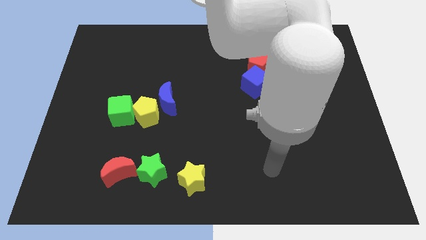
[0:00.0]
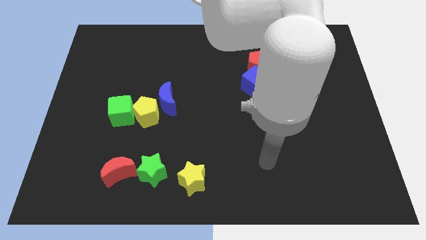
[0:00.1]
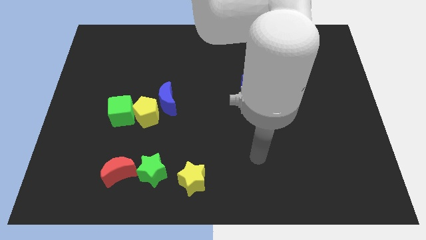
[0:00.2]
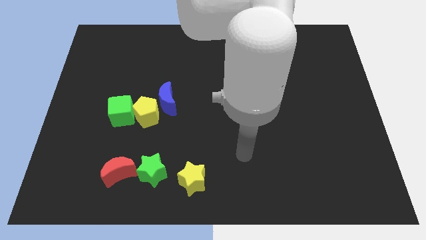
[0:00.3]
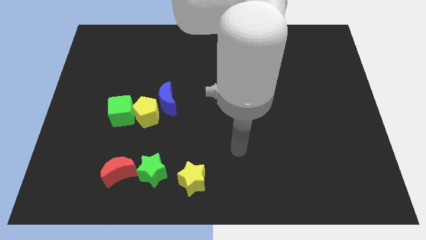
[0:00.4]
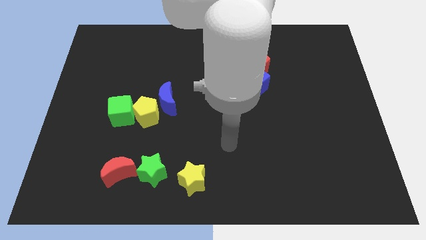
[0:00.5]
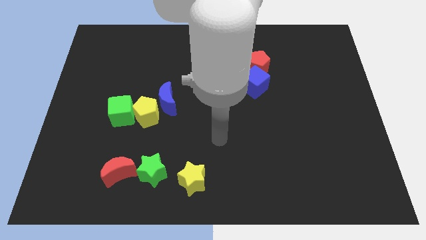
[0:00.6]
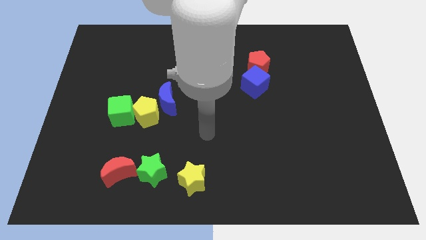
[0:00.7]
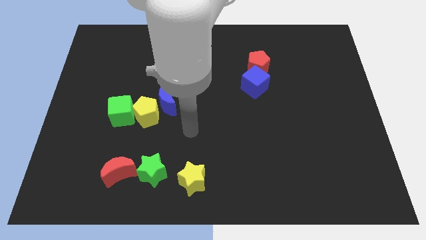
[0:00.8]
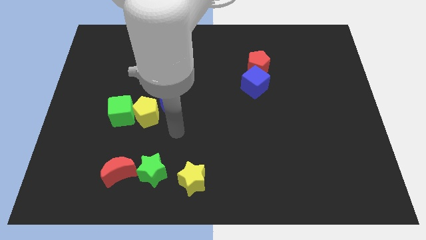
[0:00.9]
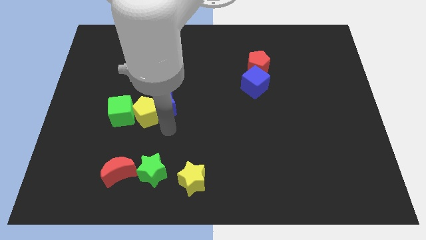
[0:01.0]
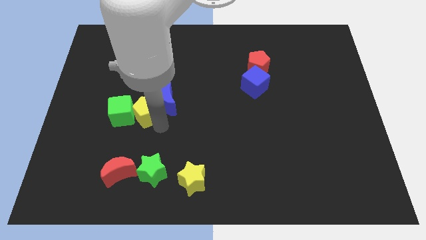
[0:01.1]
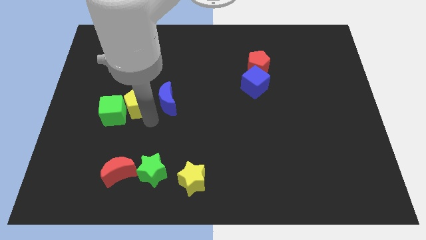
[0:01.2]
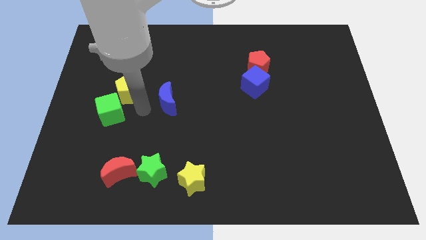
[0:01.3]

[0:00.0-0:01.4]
separate the blue moon from the yellow pentagon

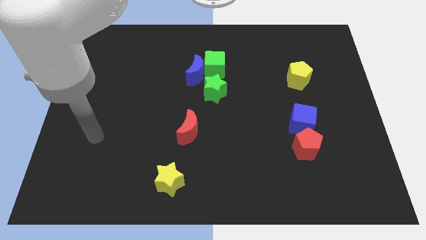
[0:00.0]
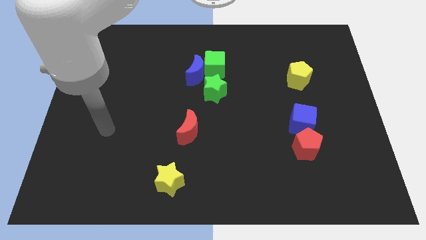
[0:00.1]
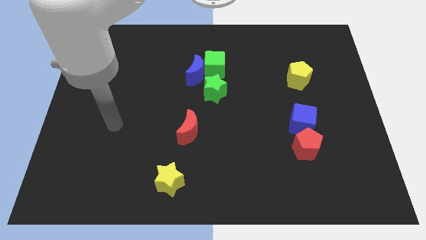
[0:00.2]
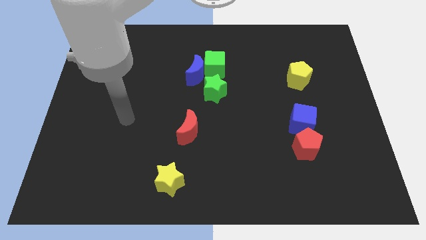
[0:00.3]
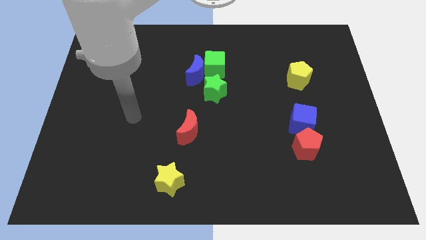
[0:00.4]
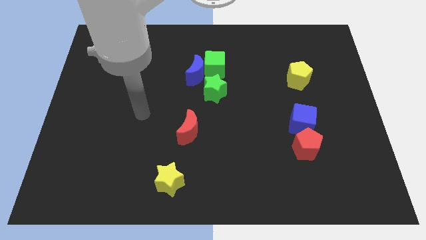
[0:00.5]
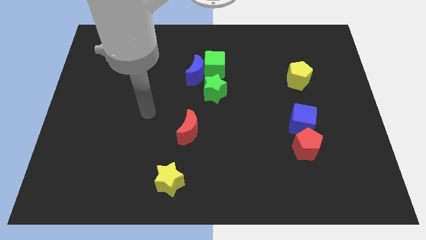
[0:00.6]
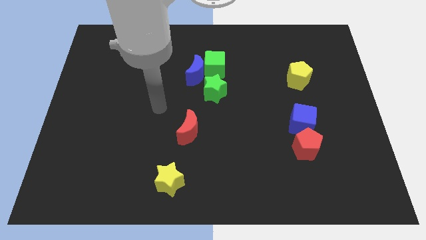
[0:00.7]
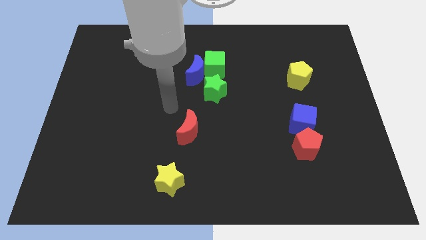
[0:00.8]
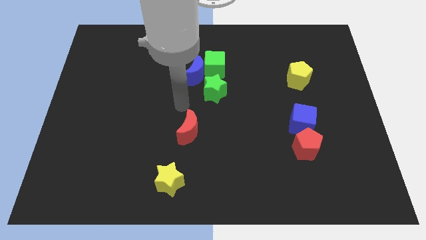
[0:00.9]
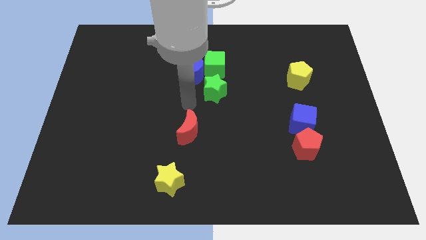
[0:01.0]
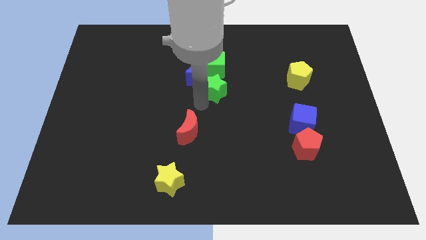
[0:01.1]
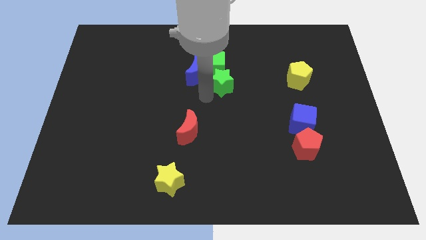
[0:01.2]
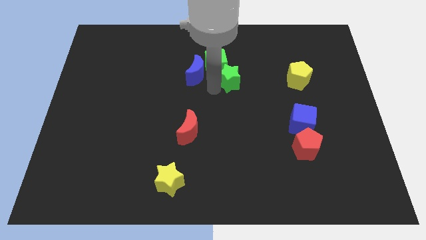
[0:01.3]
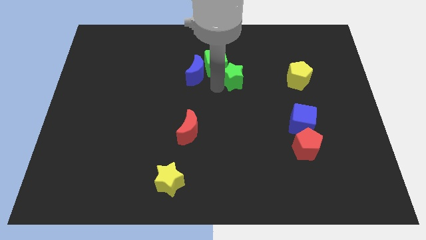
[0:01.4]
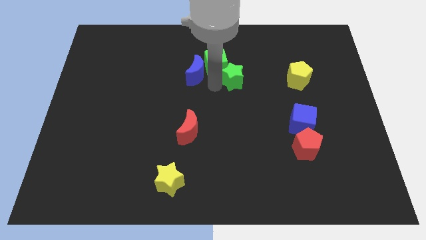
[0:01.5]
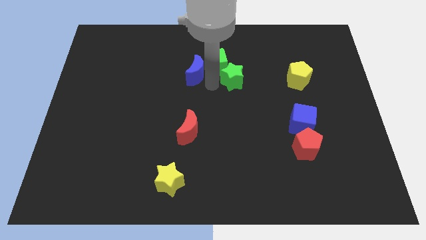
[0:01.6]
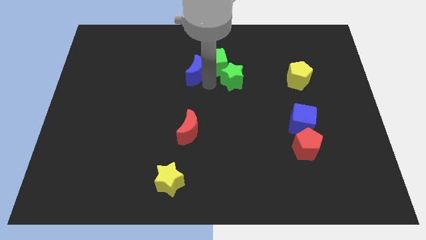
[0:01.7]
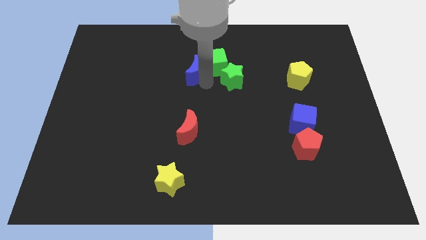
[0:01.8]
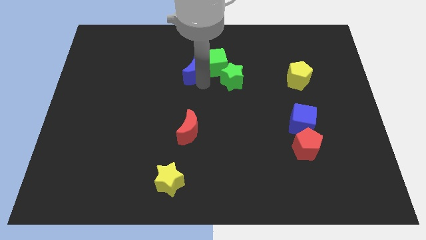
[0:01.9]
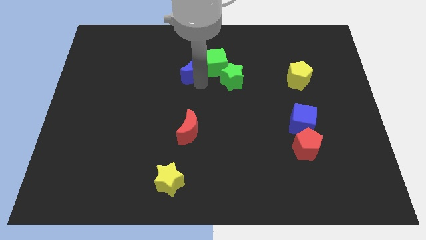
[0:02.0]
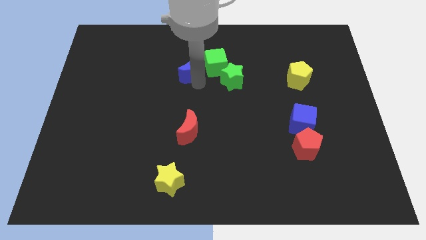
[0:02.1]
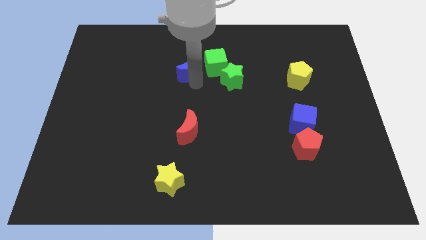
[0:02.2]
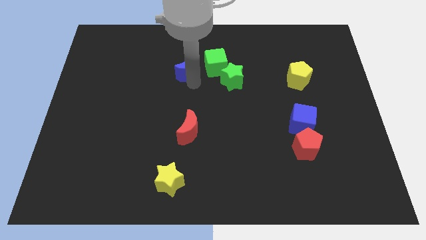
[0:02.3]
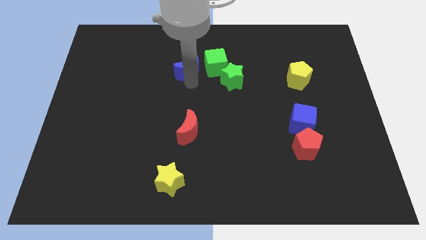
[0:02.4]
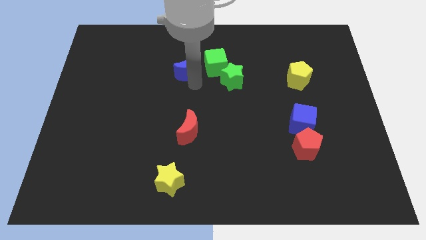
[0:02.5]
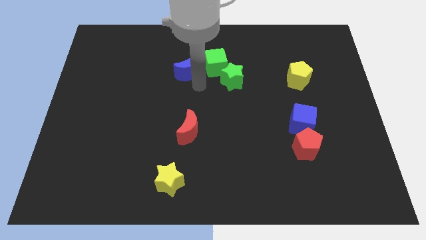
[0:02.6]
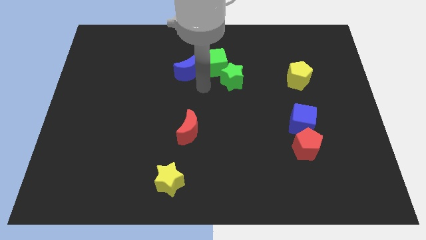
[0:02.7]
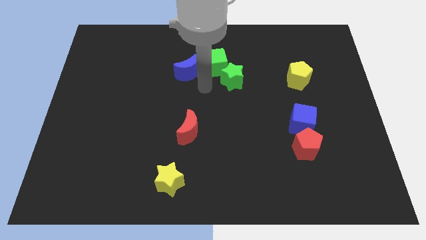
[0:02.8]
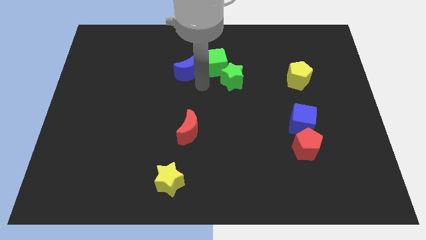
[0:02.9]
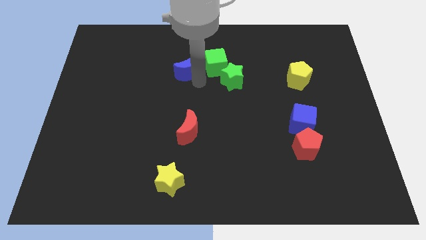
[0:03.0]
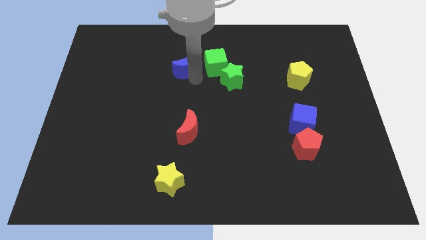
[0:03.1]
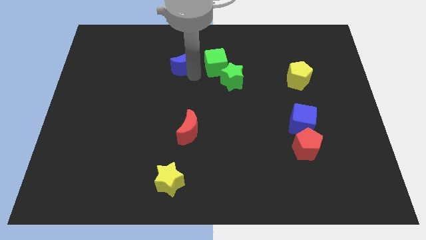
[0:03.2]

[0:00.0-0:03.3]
separate the blue moon from the green cube and green star

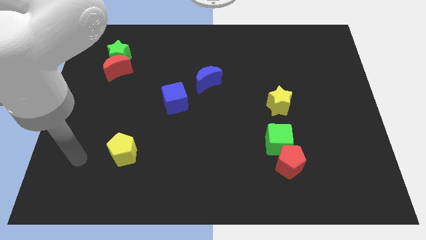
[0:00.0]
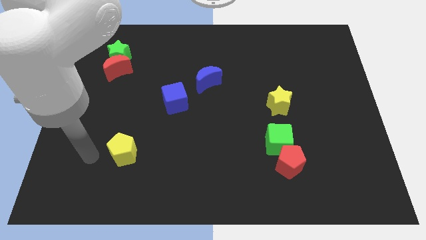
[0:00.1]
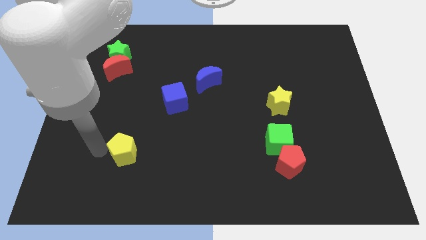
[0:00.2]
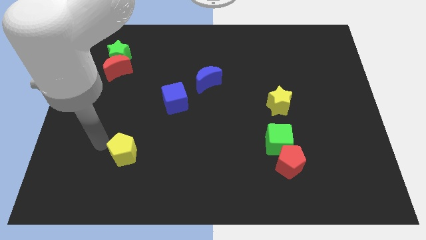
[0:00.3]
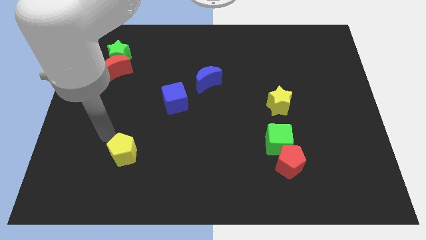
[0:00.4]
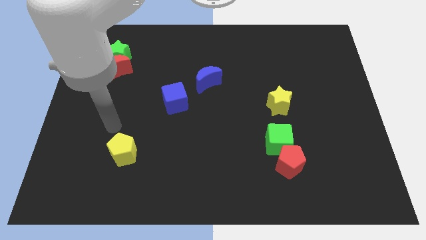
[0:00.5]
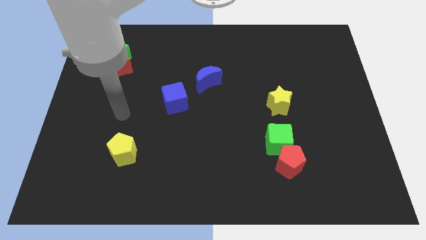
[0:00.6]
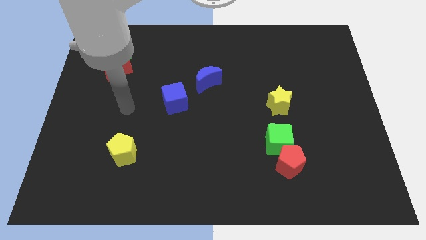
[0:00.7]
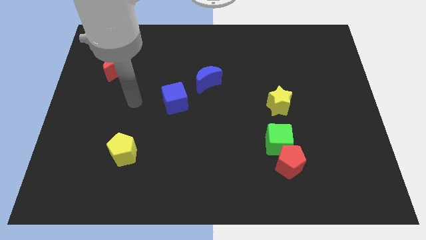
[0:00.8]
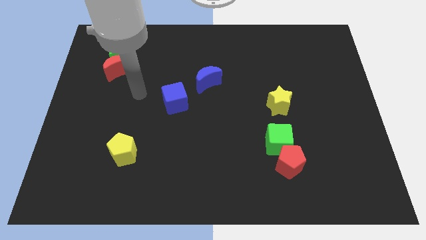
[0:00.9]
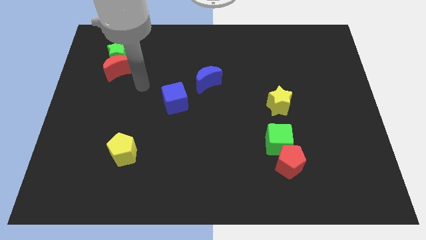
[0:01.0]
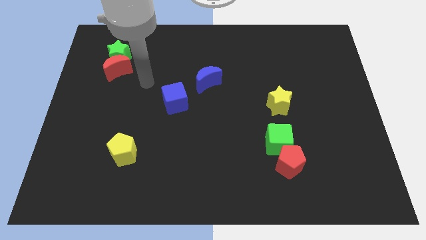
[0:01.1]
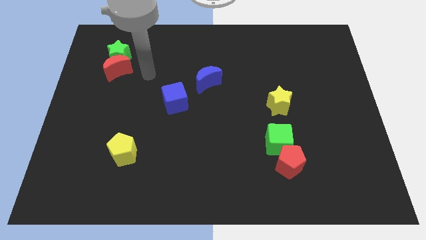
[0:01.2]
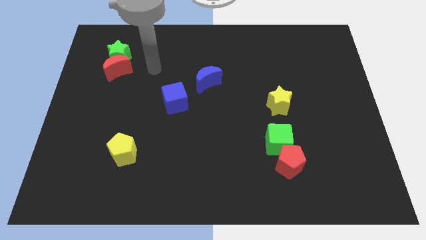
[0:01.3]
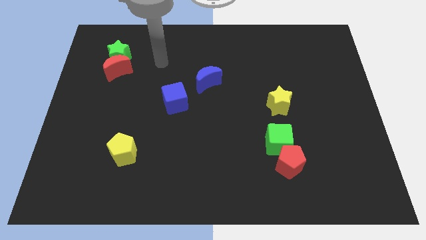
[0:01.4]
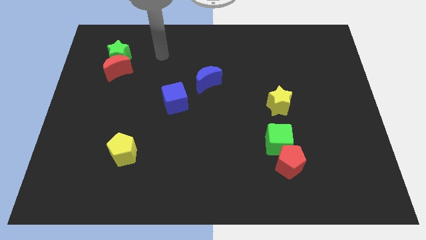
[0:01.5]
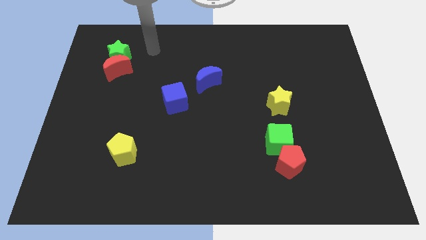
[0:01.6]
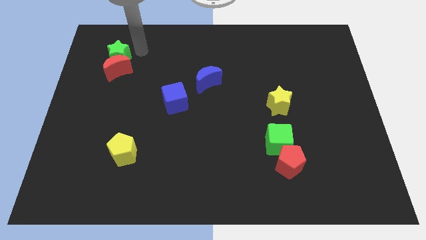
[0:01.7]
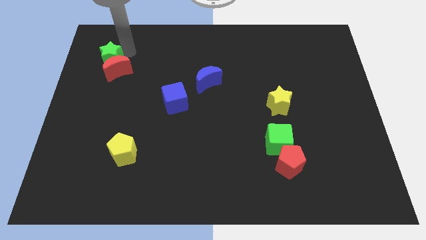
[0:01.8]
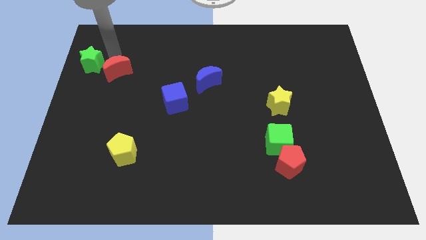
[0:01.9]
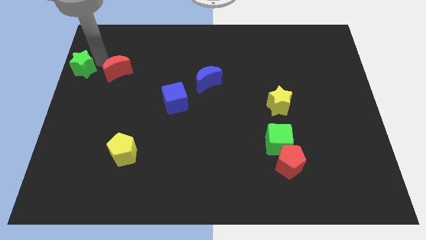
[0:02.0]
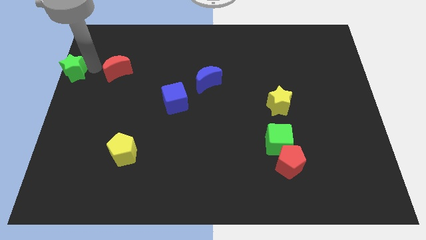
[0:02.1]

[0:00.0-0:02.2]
move the red moon away from the green star

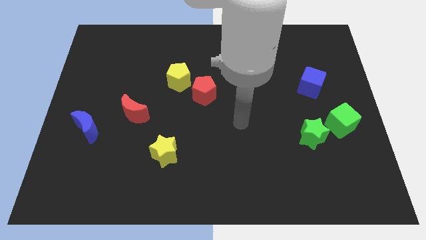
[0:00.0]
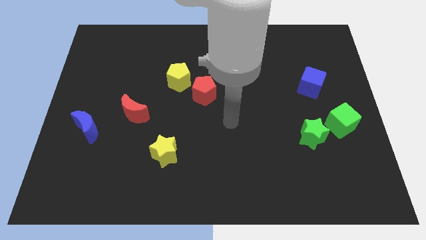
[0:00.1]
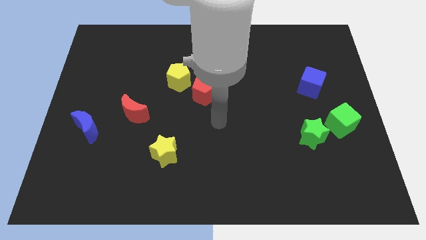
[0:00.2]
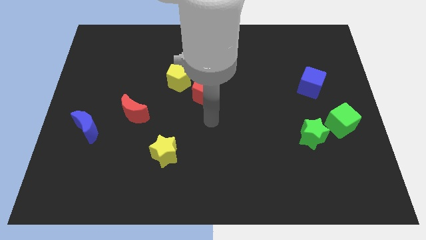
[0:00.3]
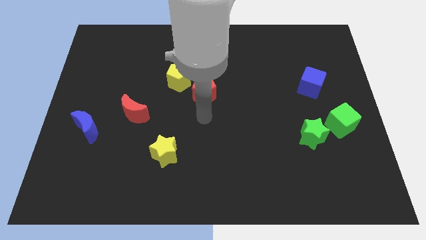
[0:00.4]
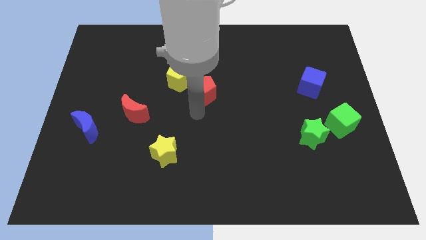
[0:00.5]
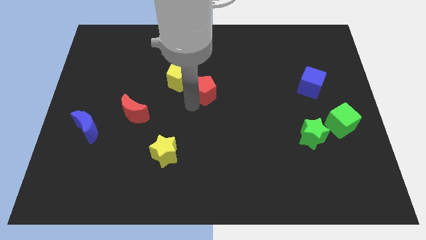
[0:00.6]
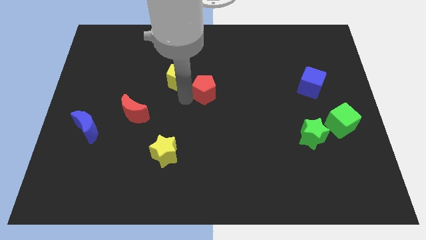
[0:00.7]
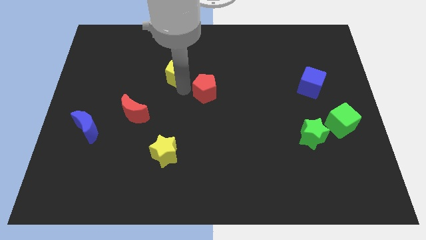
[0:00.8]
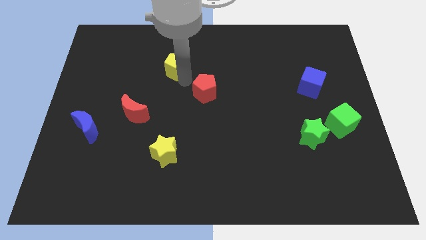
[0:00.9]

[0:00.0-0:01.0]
pull the red pentagon apart from the yellow pentagon

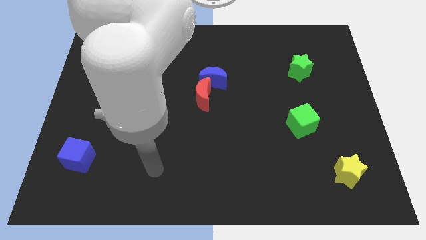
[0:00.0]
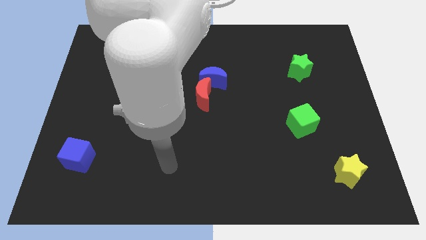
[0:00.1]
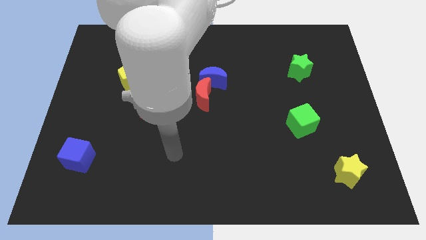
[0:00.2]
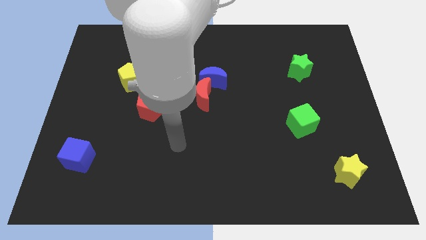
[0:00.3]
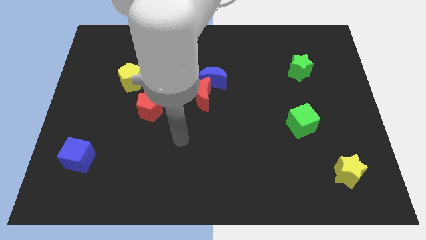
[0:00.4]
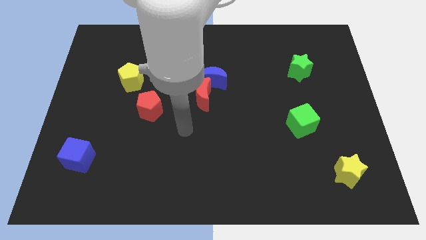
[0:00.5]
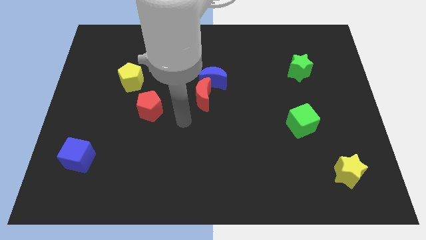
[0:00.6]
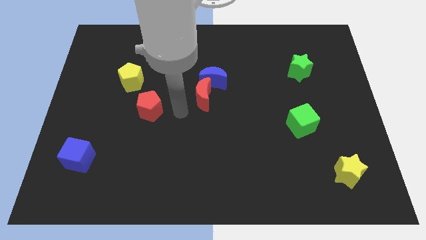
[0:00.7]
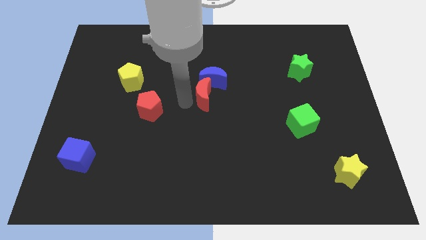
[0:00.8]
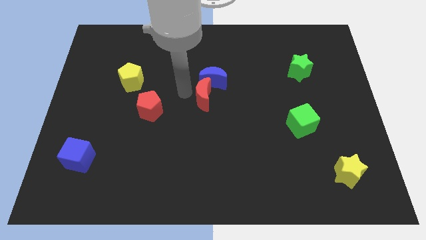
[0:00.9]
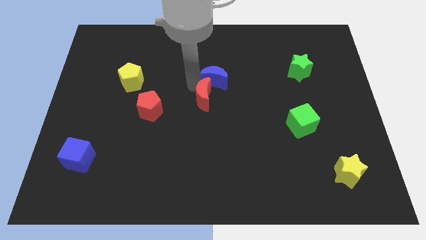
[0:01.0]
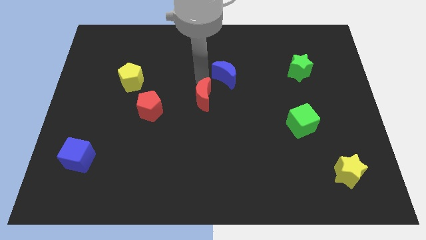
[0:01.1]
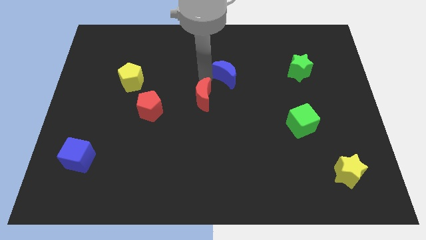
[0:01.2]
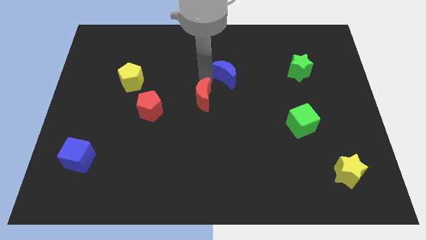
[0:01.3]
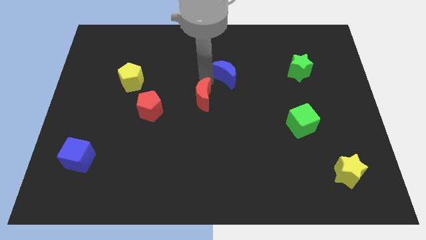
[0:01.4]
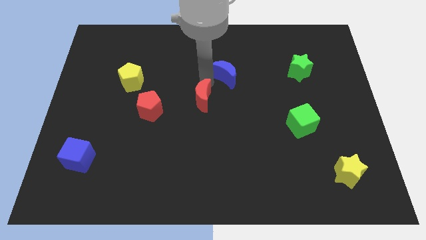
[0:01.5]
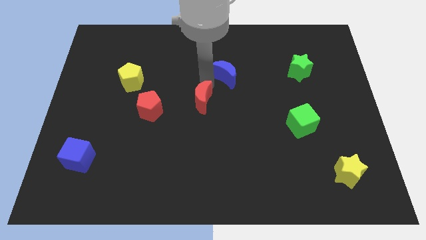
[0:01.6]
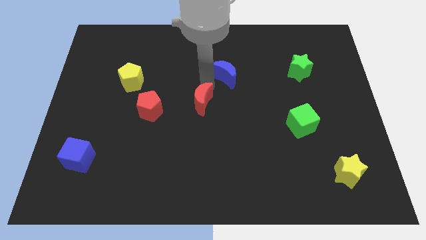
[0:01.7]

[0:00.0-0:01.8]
pull the red moon apart from the blue moon
